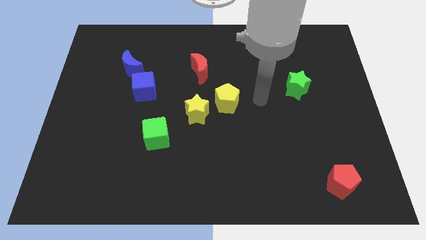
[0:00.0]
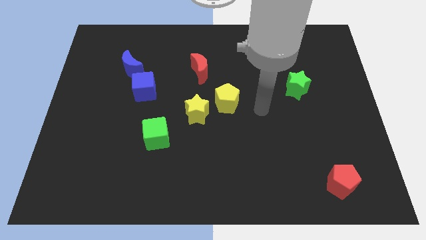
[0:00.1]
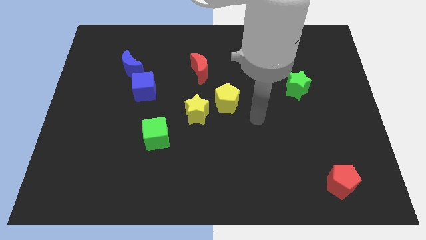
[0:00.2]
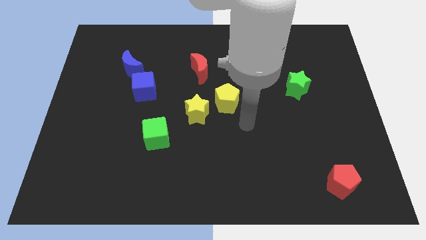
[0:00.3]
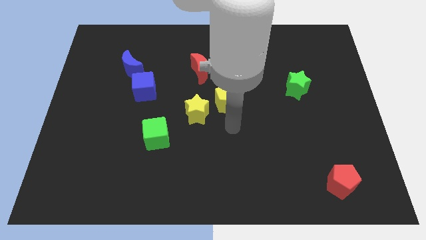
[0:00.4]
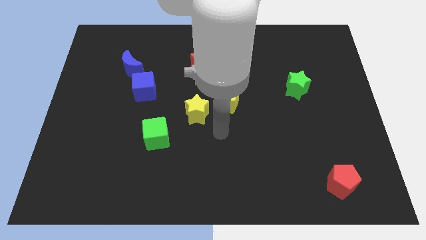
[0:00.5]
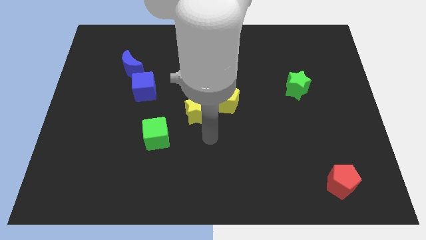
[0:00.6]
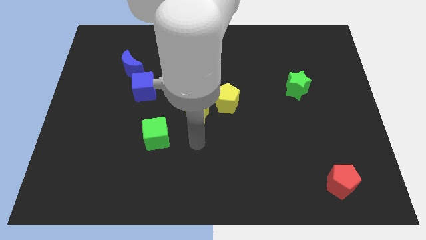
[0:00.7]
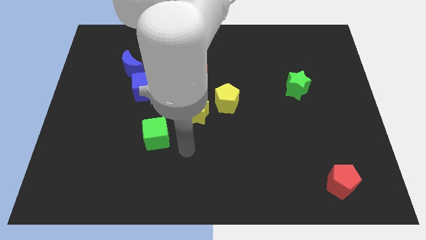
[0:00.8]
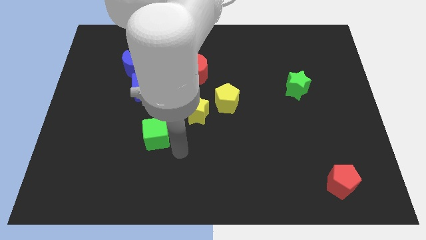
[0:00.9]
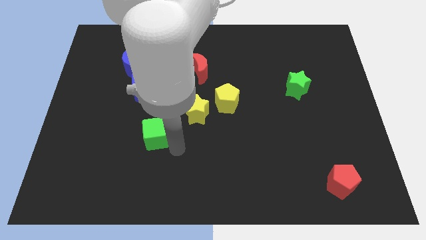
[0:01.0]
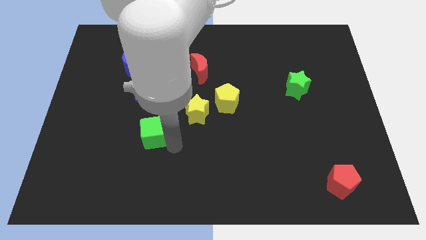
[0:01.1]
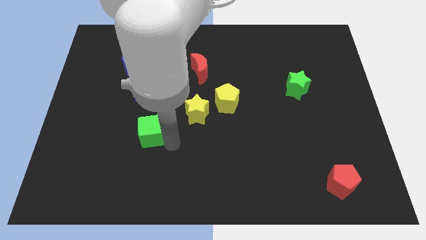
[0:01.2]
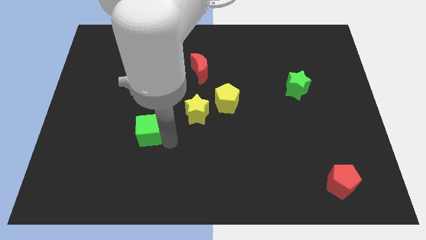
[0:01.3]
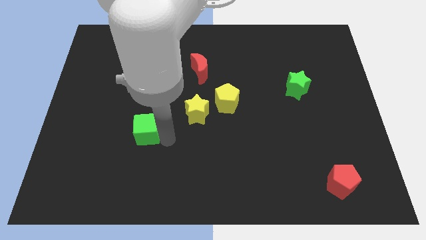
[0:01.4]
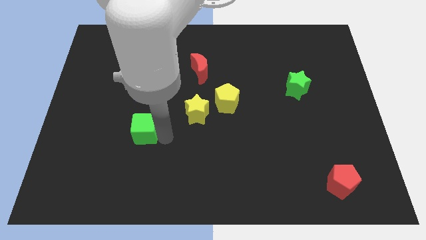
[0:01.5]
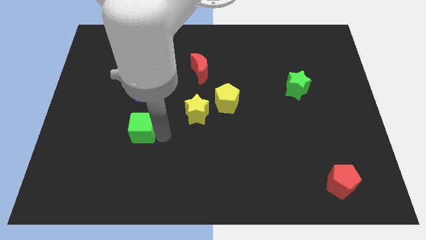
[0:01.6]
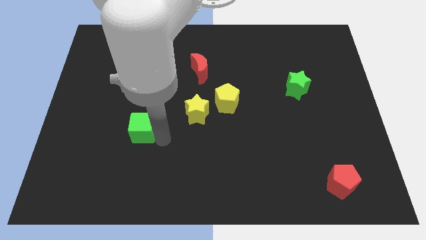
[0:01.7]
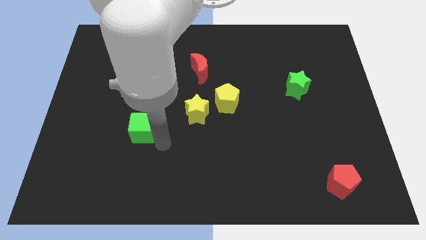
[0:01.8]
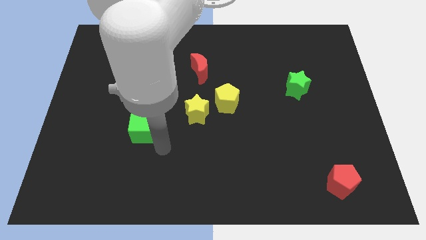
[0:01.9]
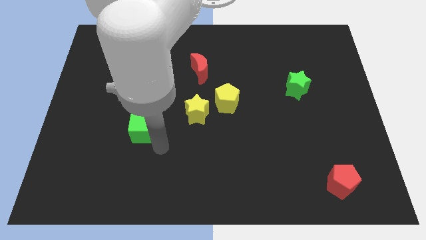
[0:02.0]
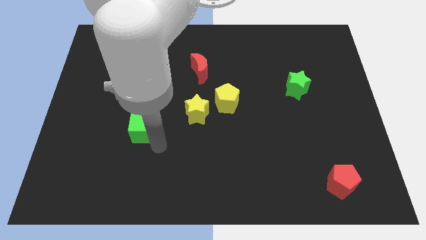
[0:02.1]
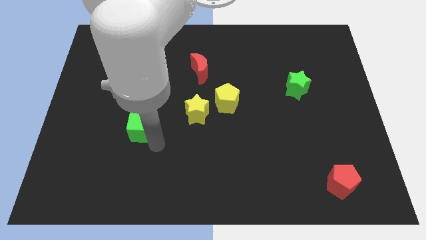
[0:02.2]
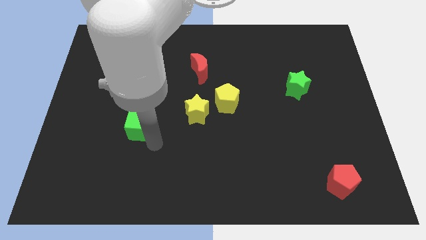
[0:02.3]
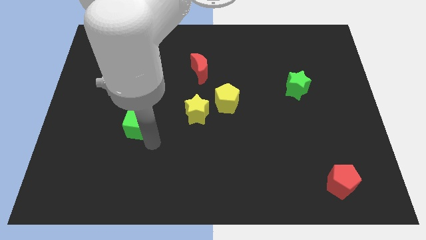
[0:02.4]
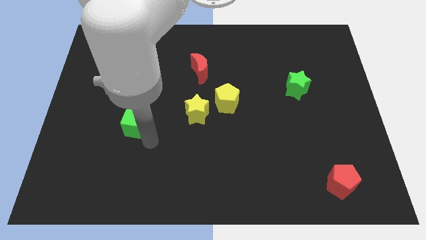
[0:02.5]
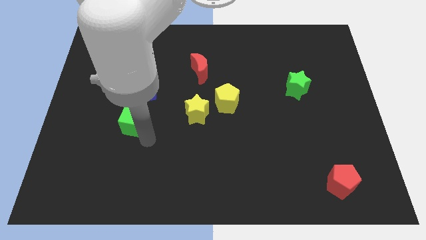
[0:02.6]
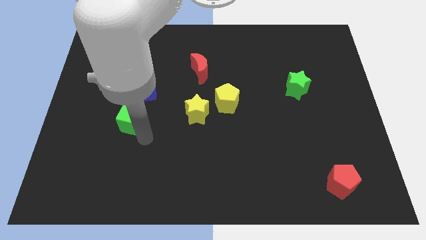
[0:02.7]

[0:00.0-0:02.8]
move the green cube diagonally up and to the left a little bit

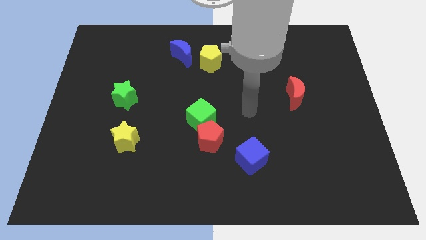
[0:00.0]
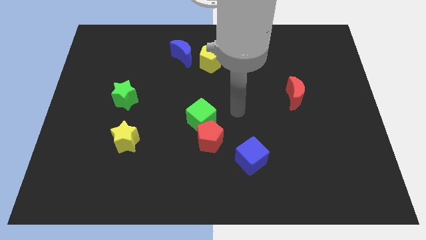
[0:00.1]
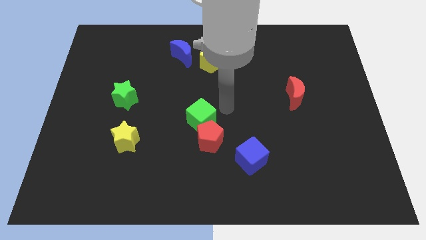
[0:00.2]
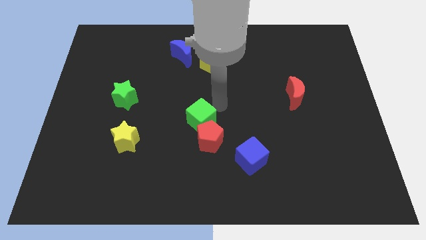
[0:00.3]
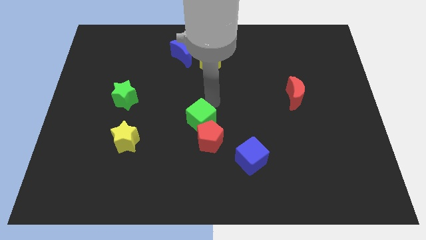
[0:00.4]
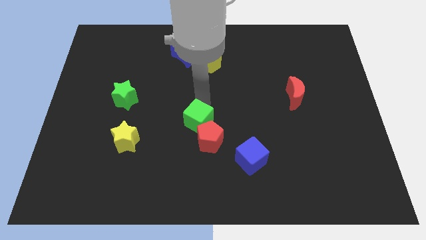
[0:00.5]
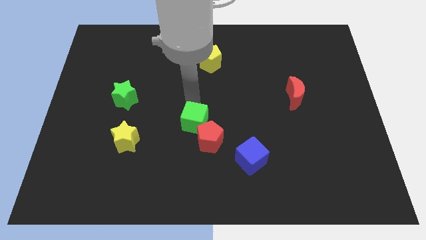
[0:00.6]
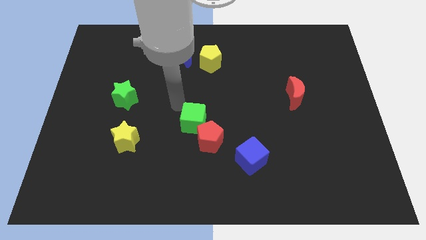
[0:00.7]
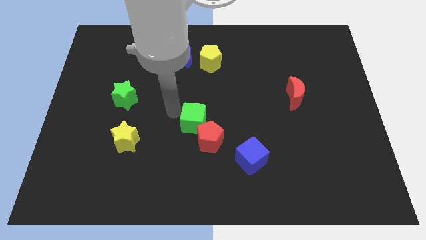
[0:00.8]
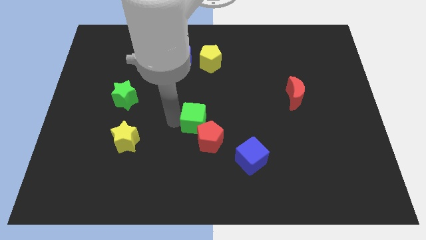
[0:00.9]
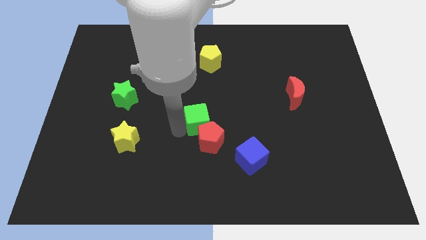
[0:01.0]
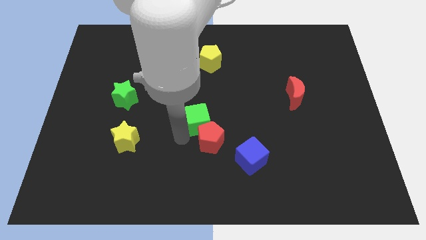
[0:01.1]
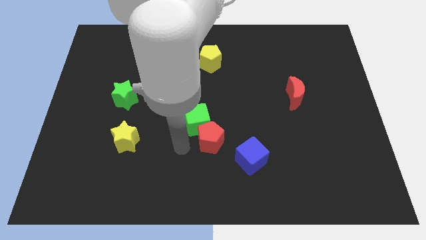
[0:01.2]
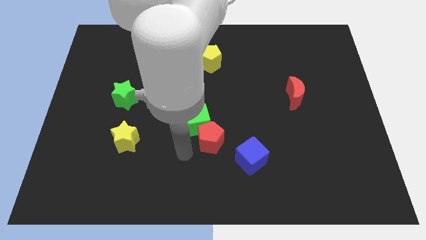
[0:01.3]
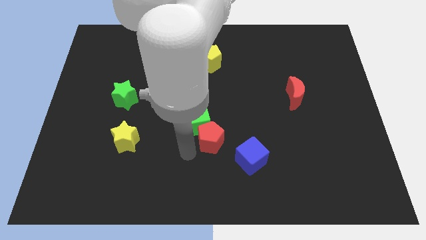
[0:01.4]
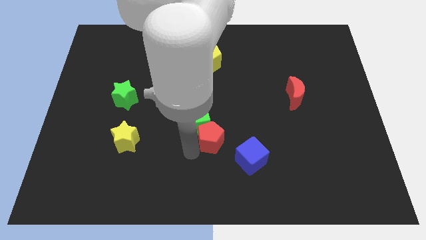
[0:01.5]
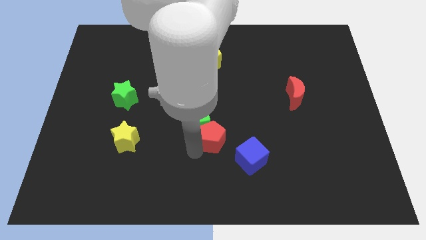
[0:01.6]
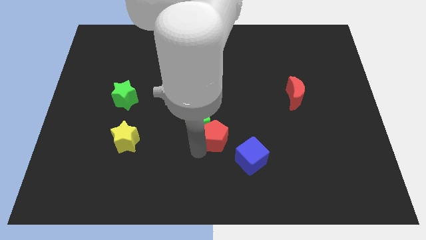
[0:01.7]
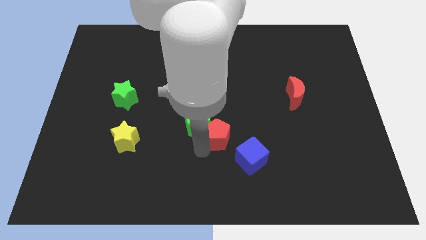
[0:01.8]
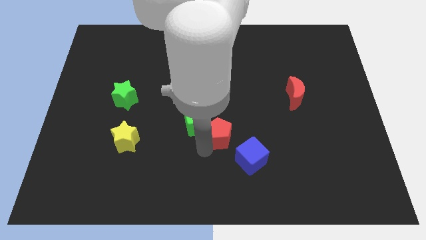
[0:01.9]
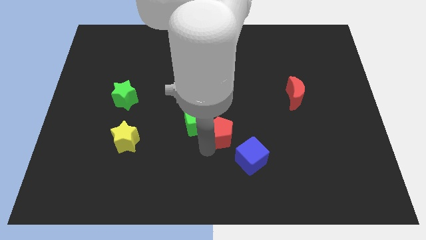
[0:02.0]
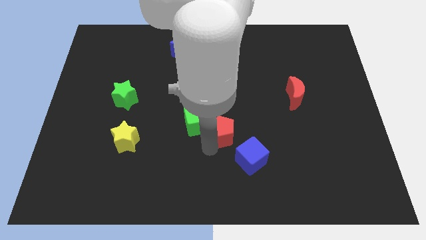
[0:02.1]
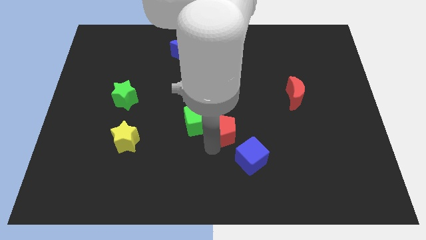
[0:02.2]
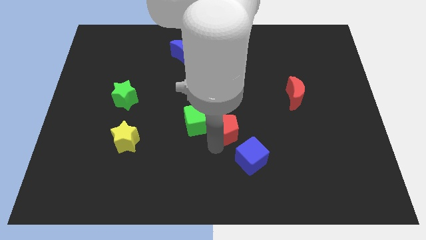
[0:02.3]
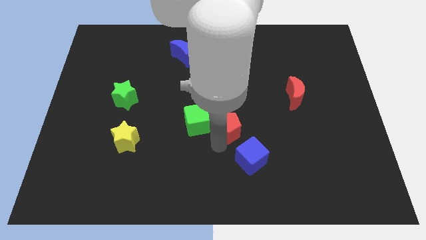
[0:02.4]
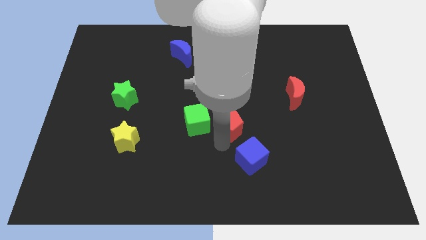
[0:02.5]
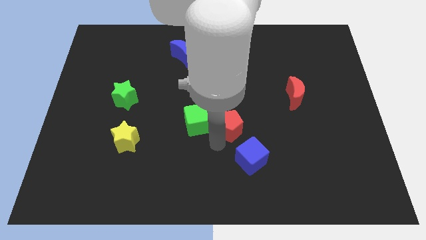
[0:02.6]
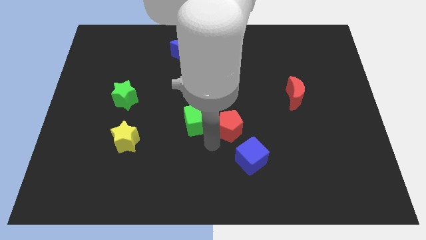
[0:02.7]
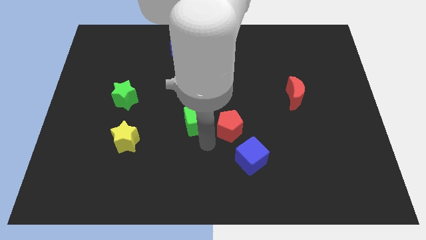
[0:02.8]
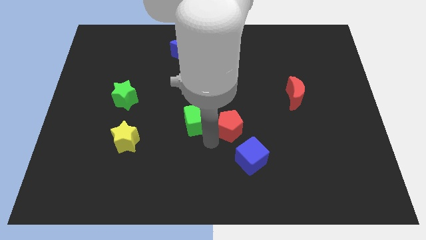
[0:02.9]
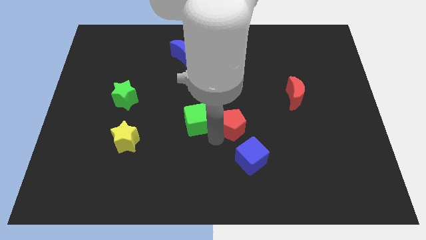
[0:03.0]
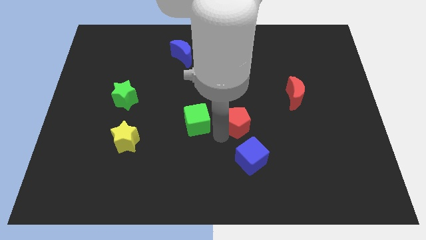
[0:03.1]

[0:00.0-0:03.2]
push the red pentagon upwards and to the right slightly

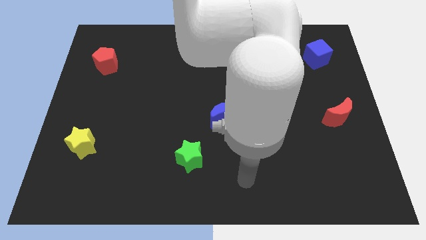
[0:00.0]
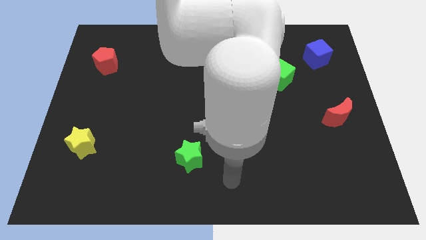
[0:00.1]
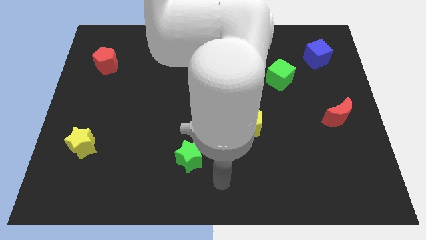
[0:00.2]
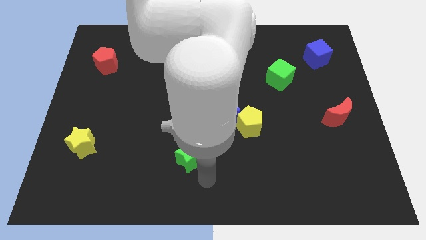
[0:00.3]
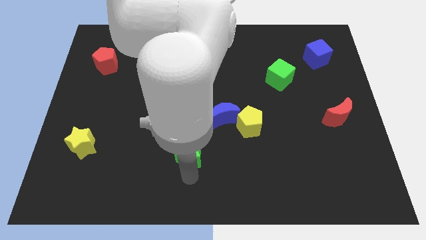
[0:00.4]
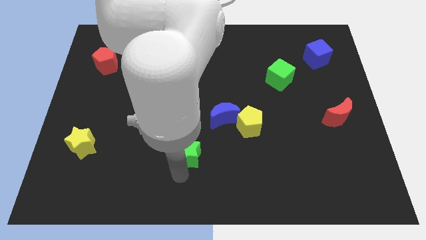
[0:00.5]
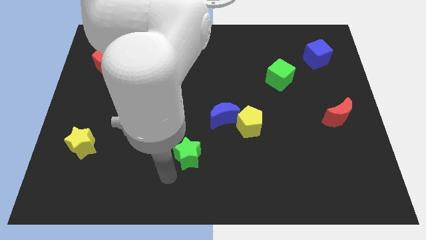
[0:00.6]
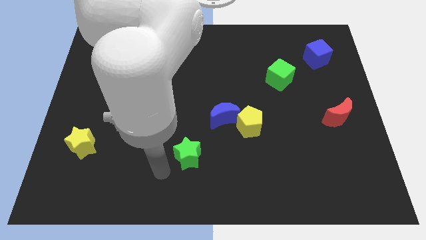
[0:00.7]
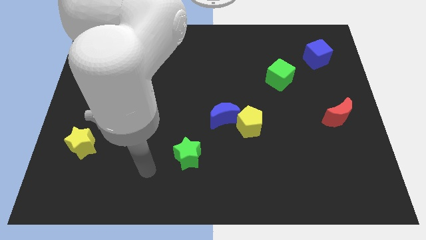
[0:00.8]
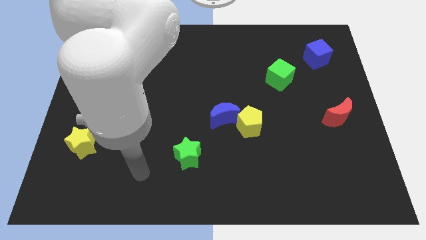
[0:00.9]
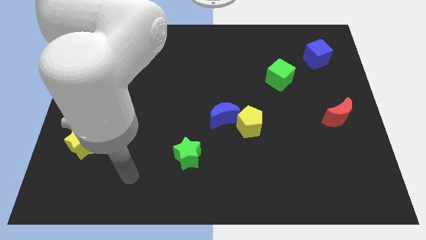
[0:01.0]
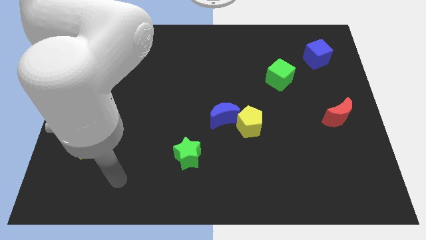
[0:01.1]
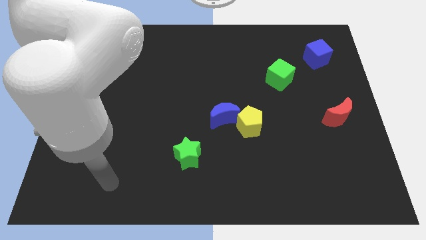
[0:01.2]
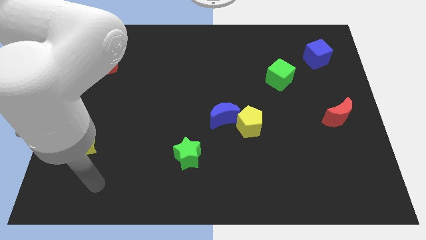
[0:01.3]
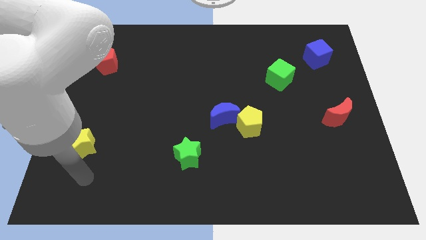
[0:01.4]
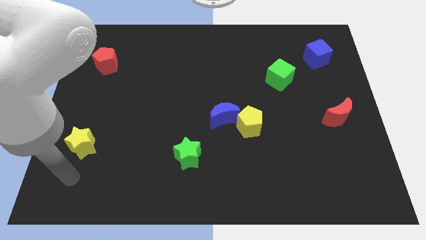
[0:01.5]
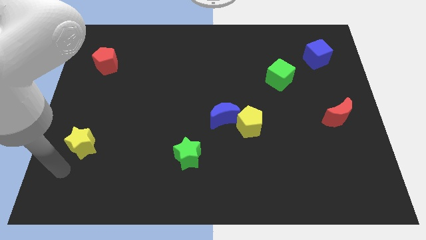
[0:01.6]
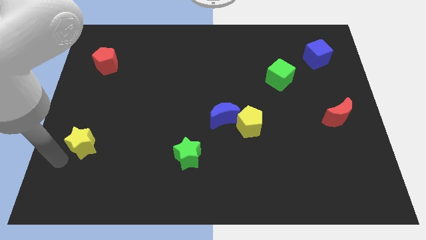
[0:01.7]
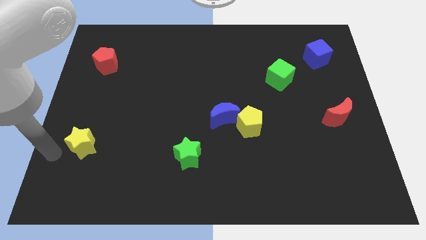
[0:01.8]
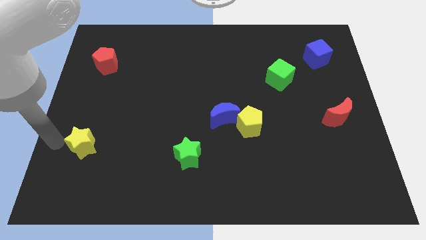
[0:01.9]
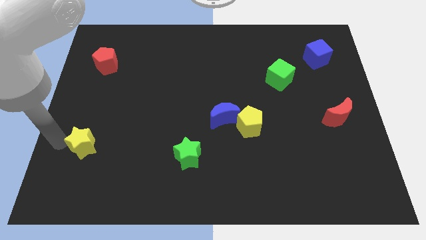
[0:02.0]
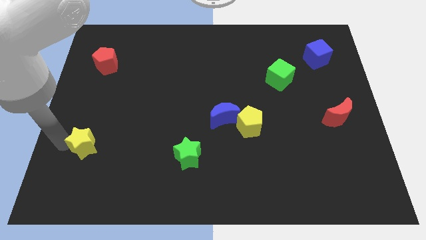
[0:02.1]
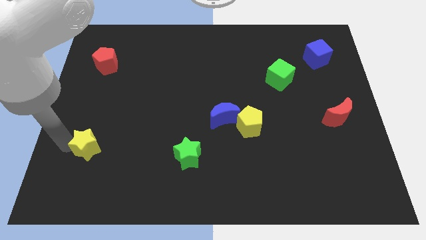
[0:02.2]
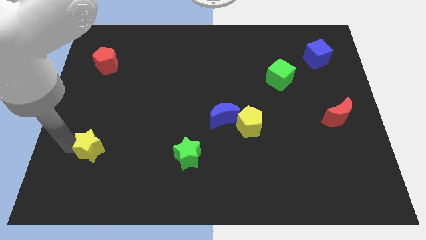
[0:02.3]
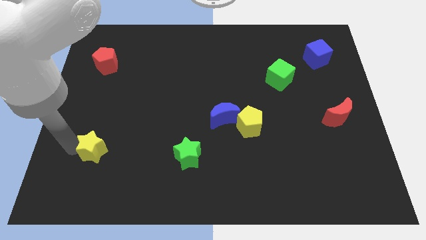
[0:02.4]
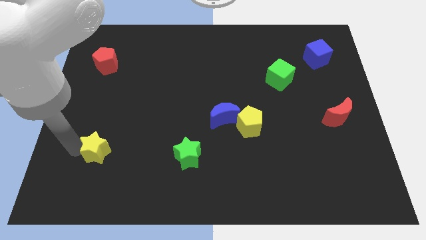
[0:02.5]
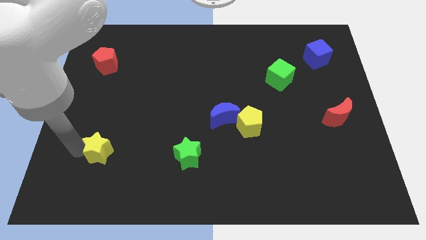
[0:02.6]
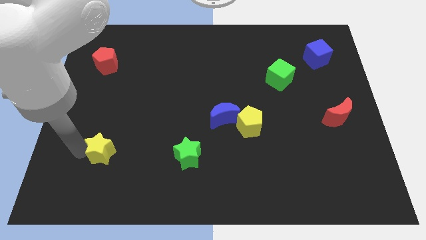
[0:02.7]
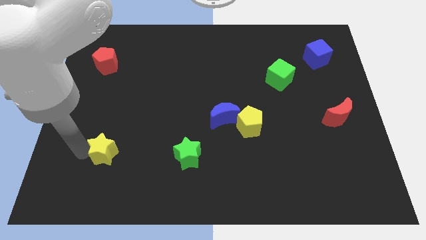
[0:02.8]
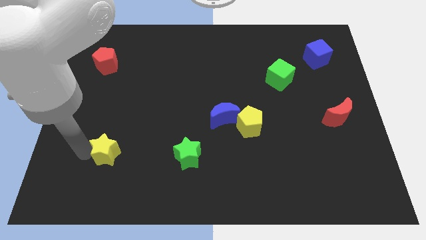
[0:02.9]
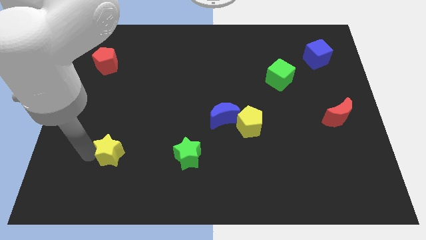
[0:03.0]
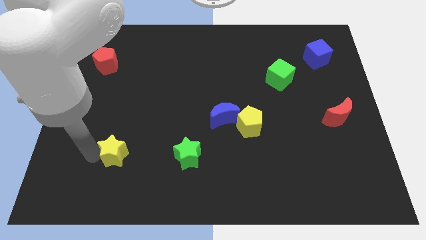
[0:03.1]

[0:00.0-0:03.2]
slightly move the yellow star right
